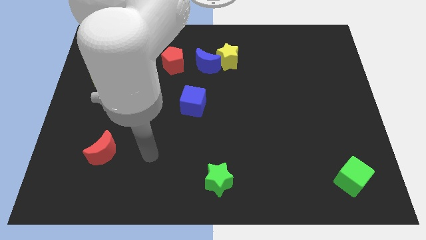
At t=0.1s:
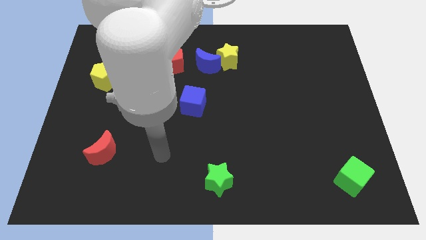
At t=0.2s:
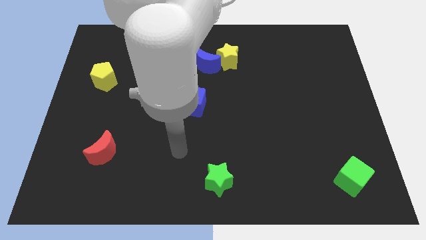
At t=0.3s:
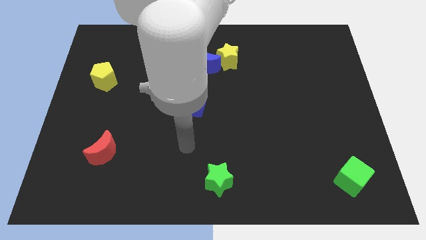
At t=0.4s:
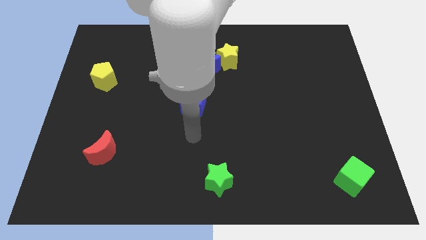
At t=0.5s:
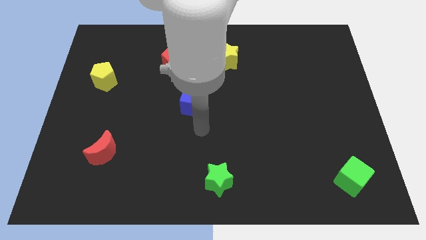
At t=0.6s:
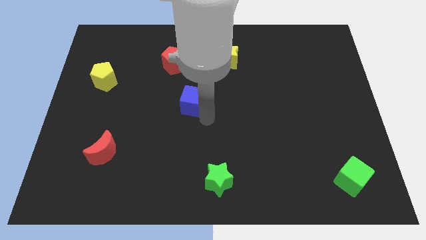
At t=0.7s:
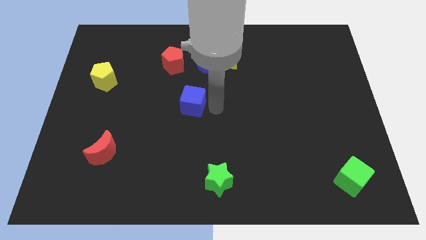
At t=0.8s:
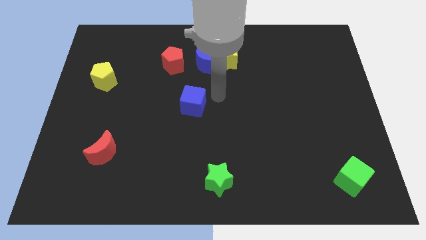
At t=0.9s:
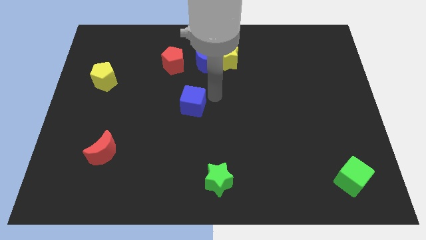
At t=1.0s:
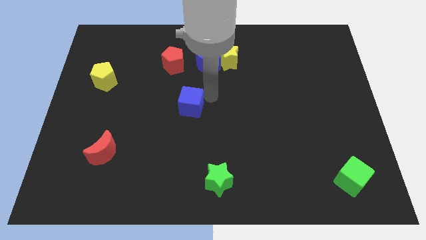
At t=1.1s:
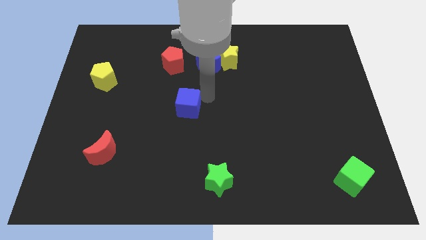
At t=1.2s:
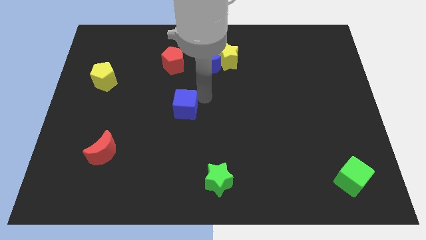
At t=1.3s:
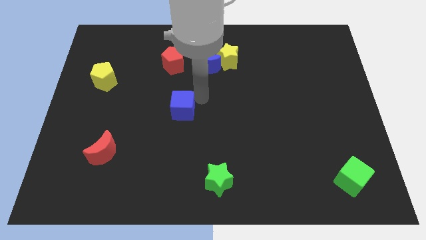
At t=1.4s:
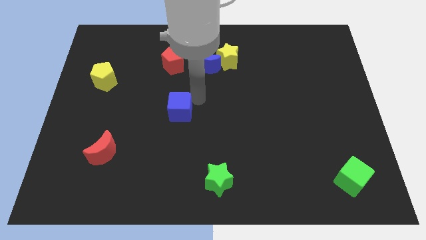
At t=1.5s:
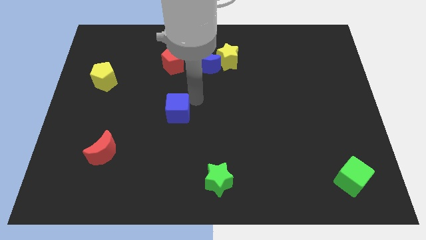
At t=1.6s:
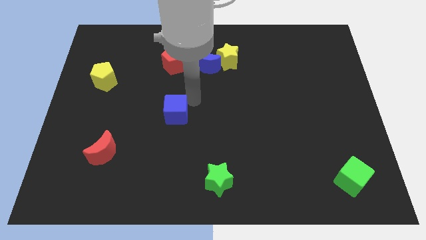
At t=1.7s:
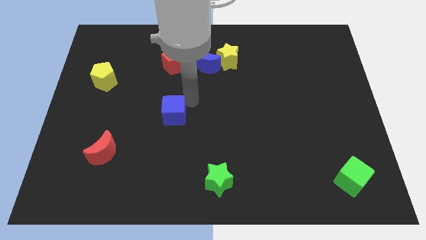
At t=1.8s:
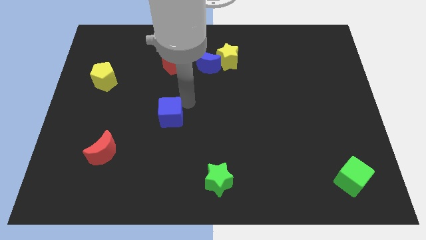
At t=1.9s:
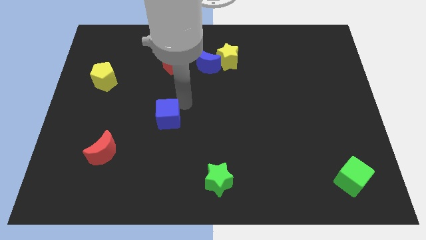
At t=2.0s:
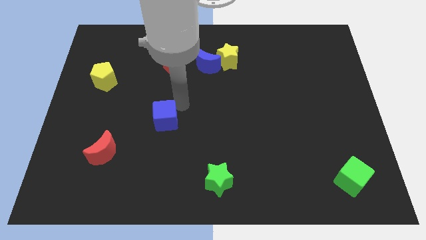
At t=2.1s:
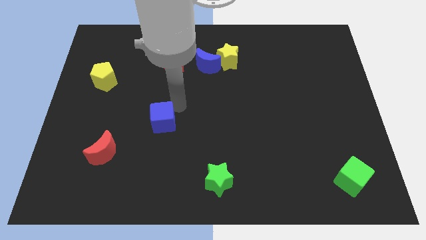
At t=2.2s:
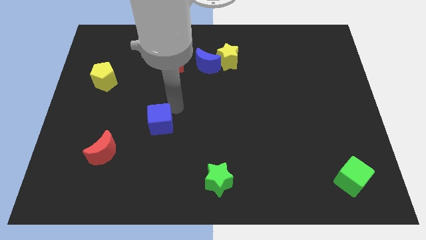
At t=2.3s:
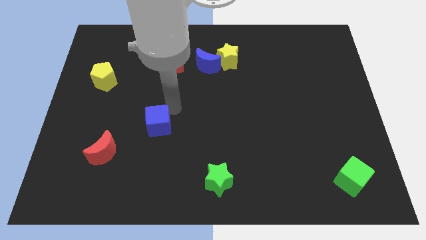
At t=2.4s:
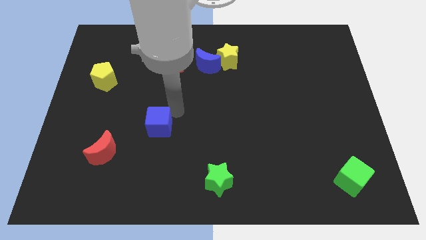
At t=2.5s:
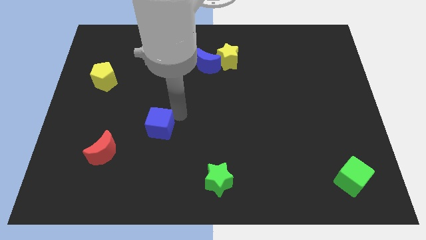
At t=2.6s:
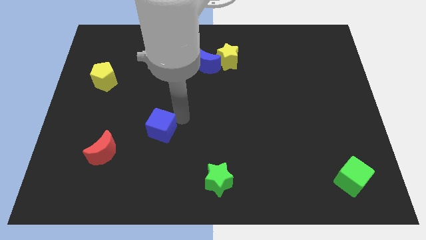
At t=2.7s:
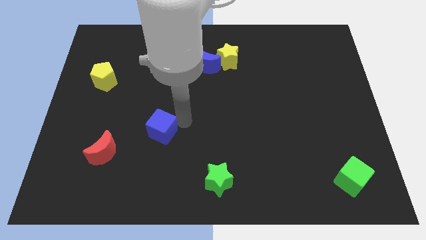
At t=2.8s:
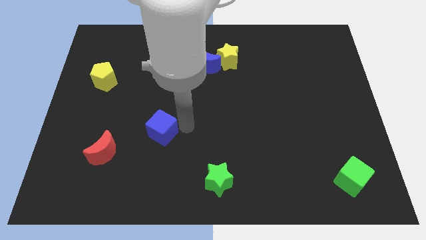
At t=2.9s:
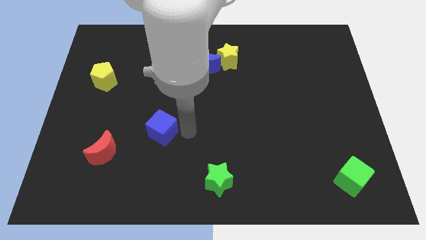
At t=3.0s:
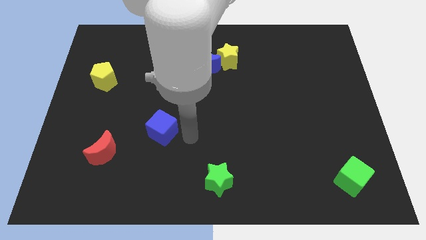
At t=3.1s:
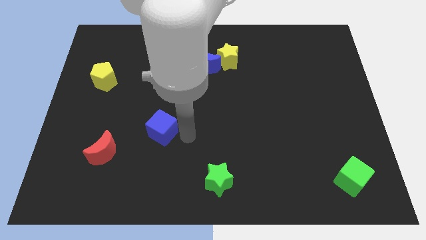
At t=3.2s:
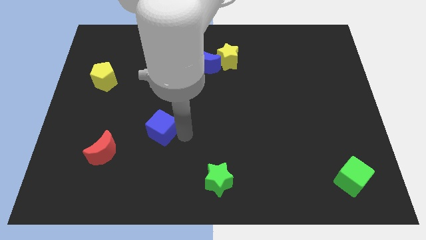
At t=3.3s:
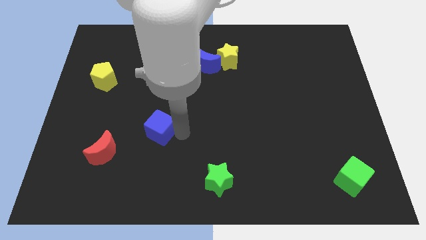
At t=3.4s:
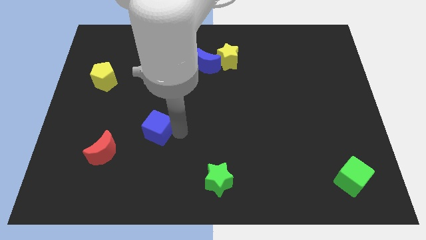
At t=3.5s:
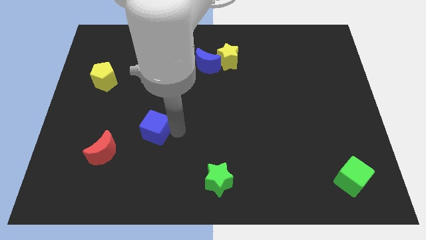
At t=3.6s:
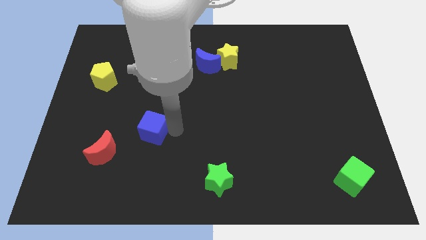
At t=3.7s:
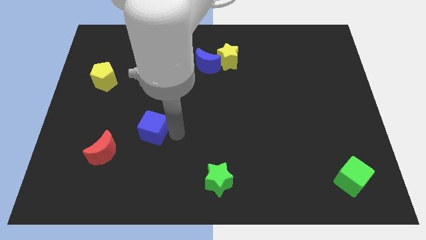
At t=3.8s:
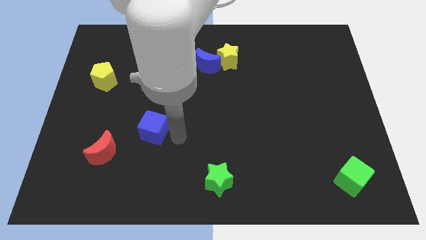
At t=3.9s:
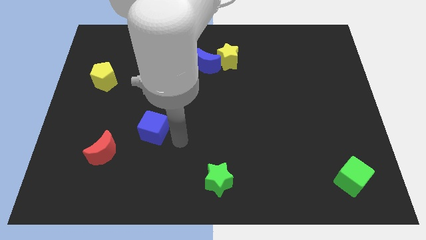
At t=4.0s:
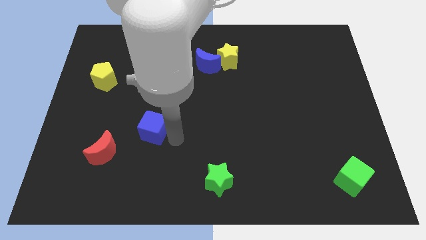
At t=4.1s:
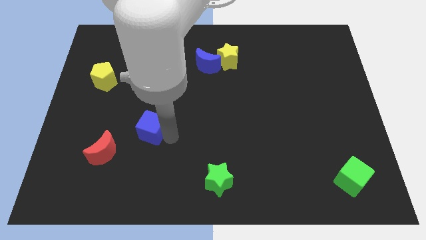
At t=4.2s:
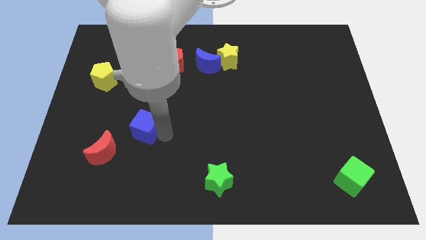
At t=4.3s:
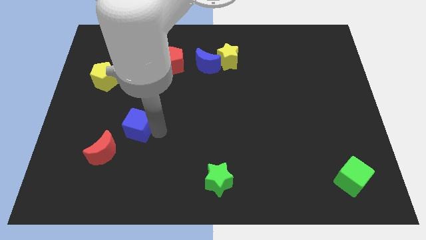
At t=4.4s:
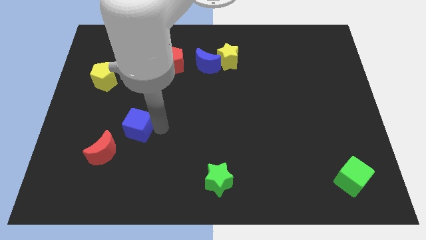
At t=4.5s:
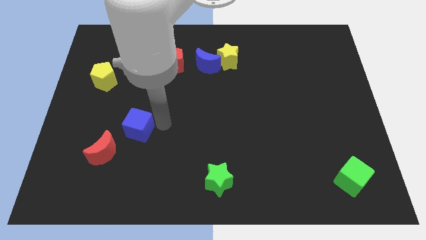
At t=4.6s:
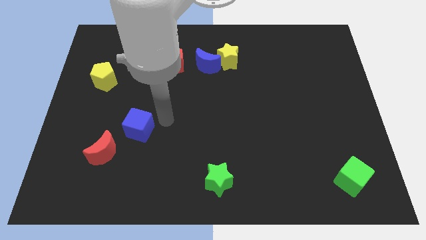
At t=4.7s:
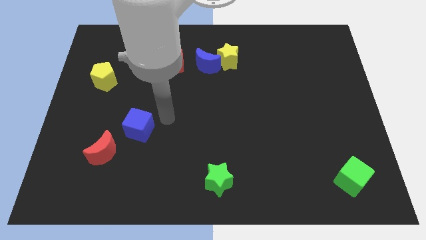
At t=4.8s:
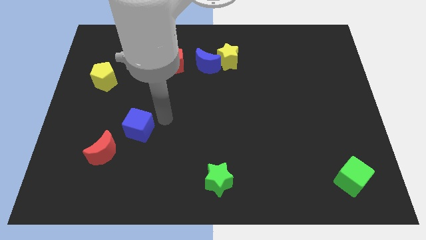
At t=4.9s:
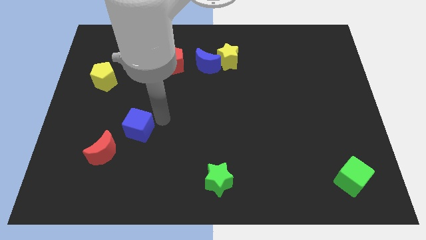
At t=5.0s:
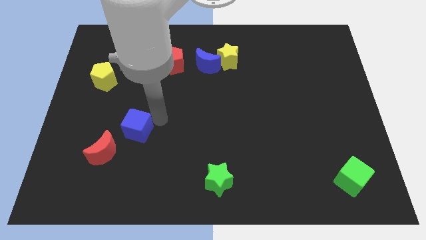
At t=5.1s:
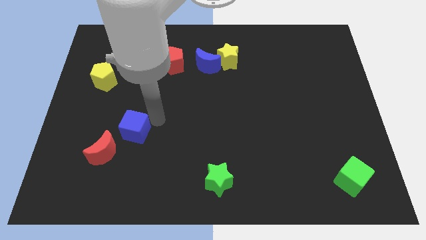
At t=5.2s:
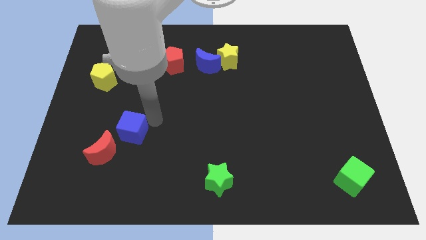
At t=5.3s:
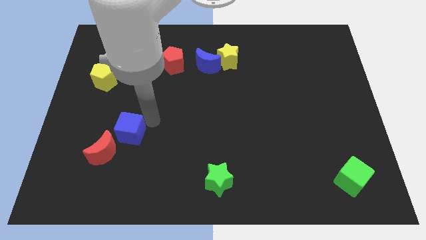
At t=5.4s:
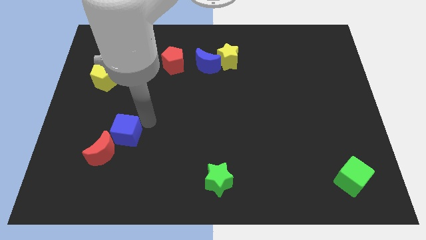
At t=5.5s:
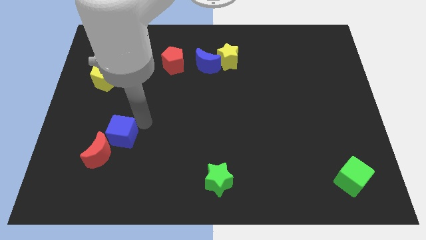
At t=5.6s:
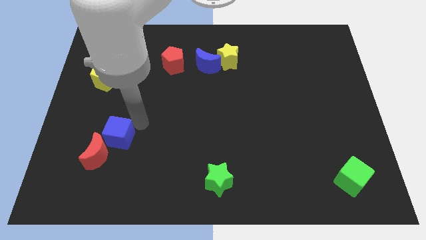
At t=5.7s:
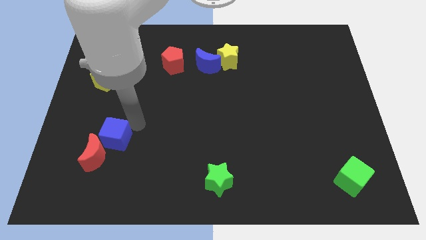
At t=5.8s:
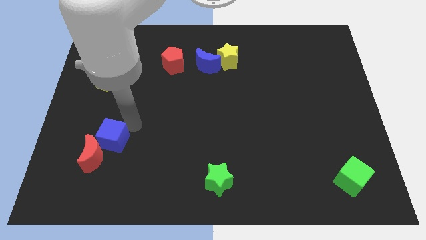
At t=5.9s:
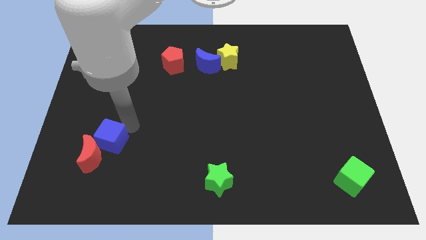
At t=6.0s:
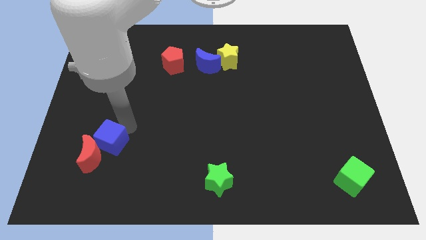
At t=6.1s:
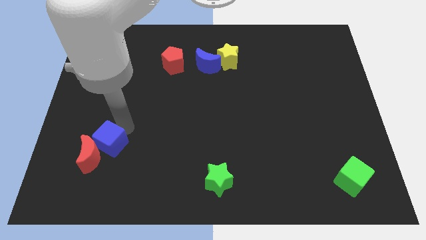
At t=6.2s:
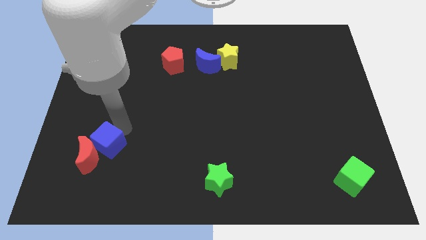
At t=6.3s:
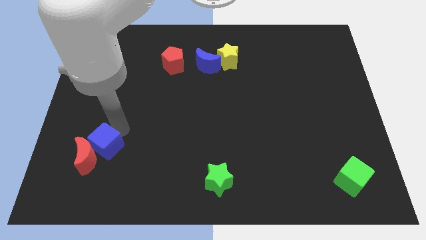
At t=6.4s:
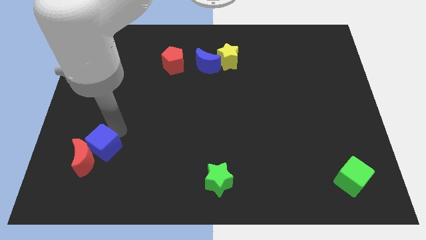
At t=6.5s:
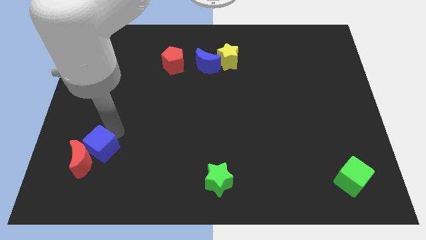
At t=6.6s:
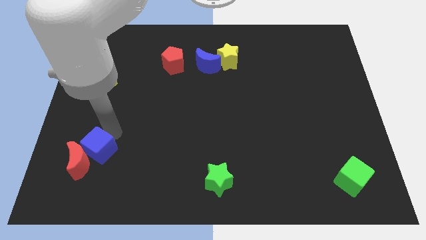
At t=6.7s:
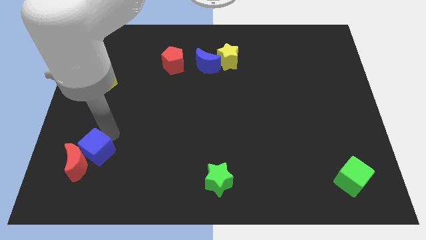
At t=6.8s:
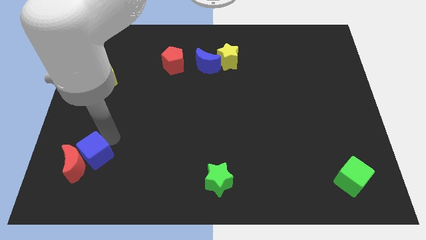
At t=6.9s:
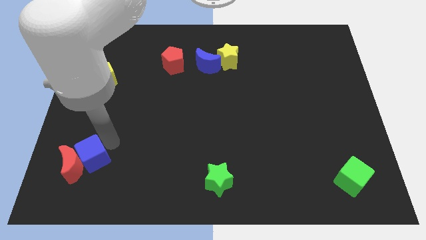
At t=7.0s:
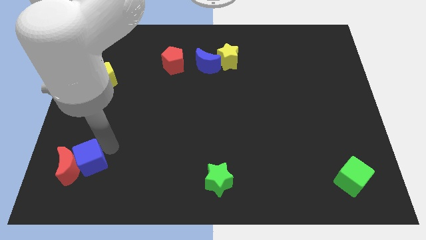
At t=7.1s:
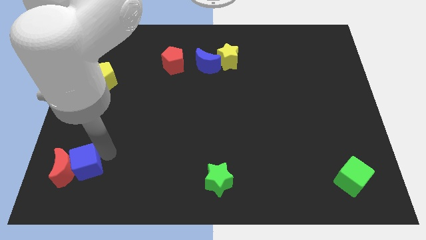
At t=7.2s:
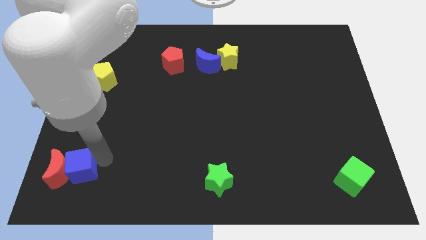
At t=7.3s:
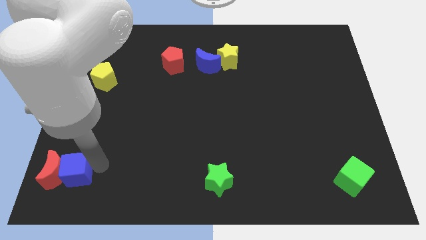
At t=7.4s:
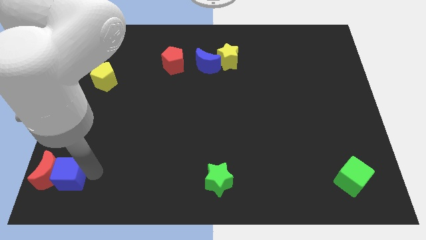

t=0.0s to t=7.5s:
put the blue cube to the bottom left of the board
